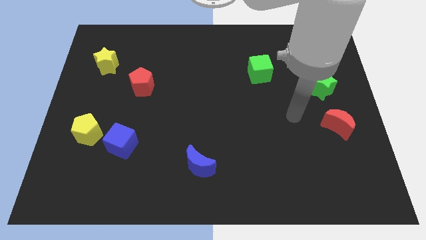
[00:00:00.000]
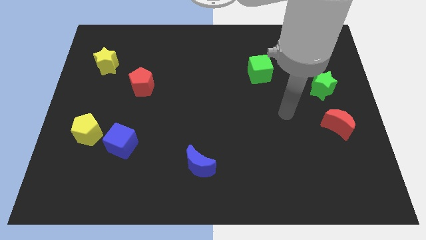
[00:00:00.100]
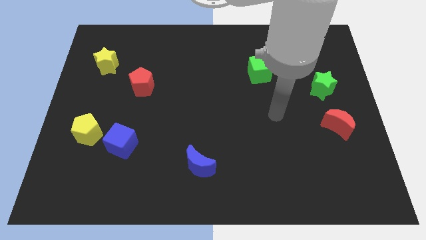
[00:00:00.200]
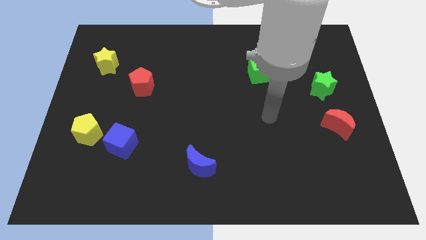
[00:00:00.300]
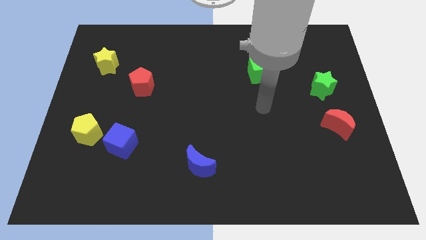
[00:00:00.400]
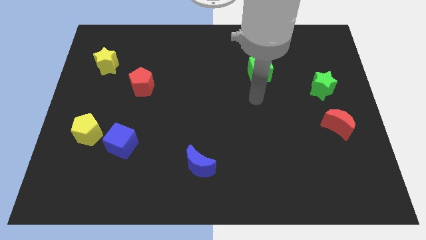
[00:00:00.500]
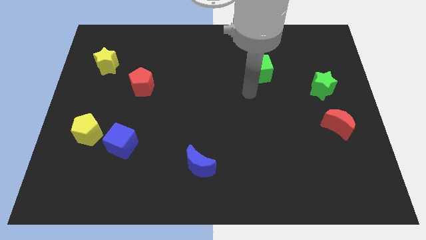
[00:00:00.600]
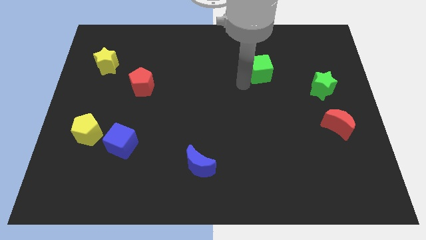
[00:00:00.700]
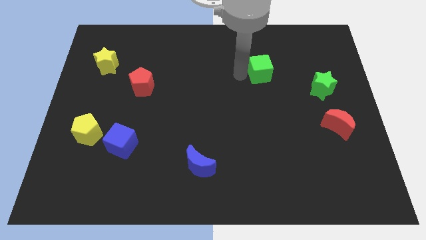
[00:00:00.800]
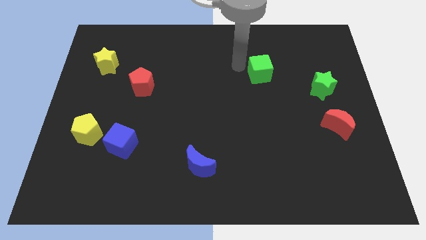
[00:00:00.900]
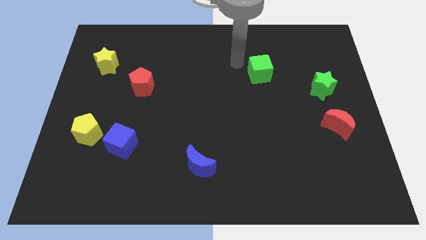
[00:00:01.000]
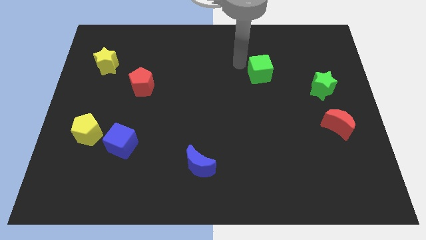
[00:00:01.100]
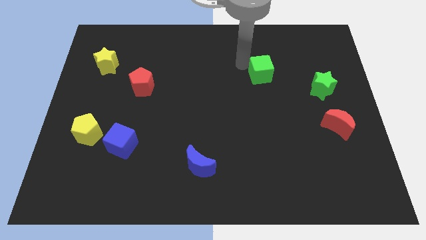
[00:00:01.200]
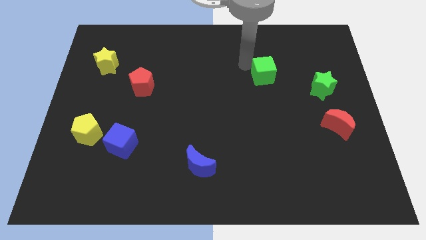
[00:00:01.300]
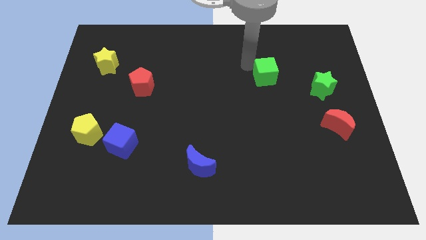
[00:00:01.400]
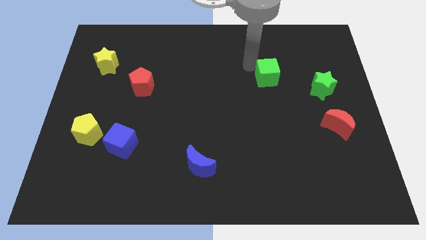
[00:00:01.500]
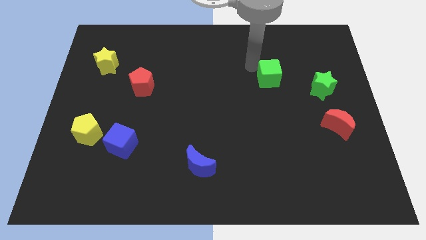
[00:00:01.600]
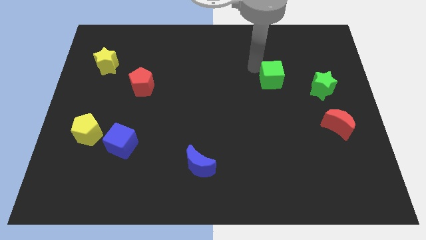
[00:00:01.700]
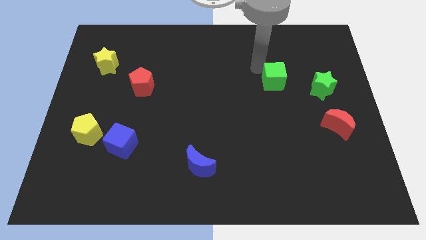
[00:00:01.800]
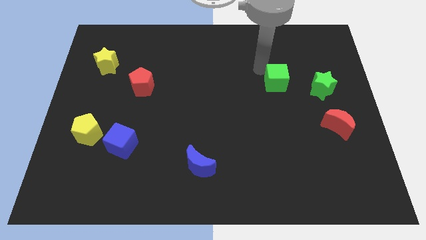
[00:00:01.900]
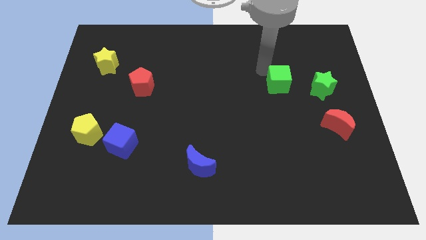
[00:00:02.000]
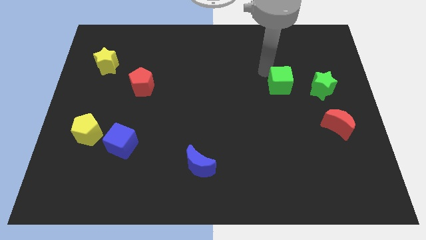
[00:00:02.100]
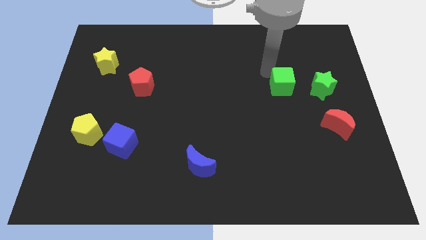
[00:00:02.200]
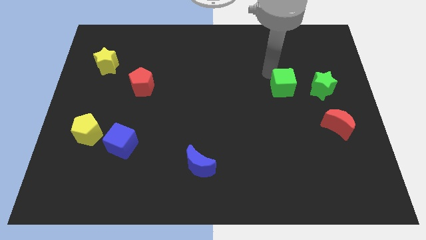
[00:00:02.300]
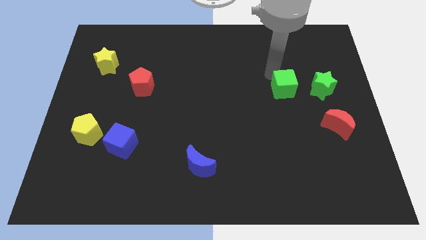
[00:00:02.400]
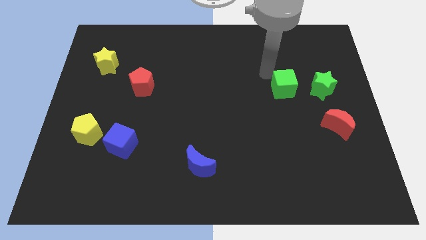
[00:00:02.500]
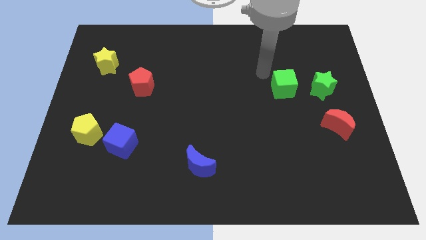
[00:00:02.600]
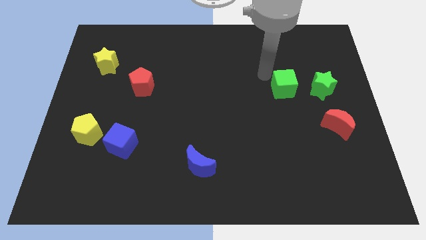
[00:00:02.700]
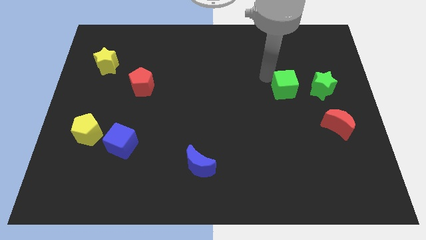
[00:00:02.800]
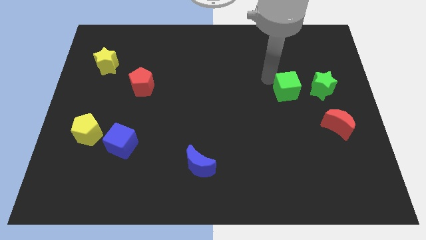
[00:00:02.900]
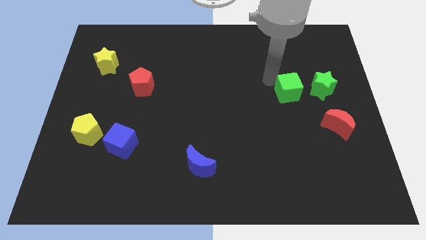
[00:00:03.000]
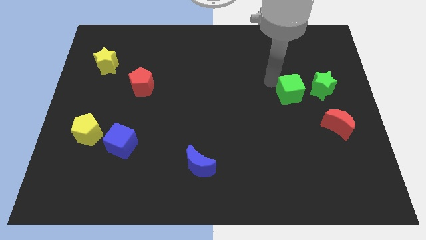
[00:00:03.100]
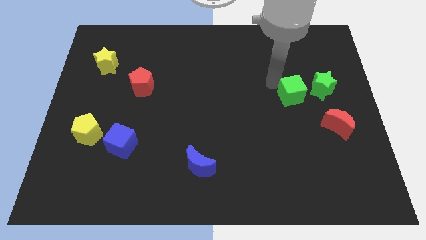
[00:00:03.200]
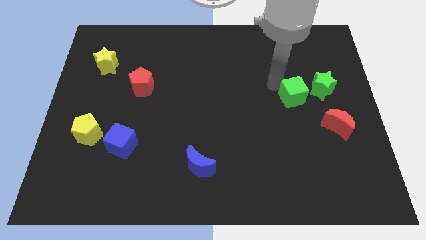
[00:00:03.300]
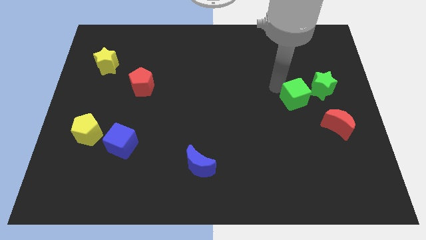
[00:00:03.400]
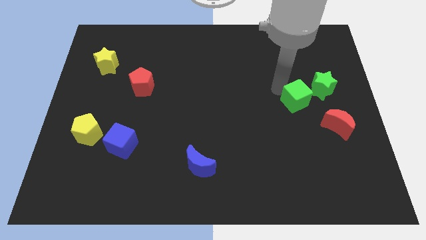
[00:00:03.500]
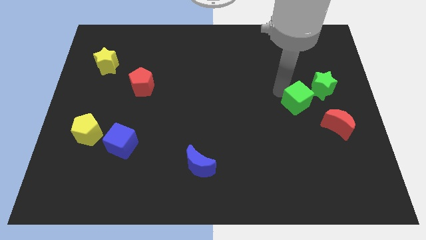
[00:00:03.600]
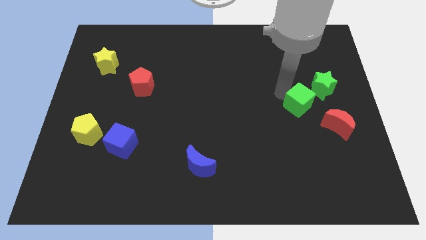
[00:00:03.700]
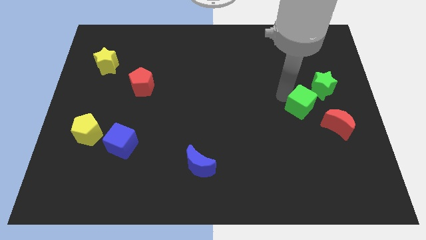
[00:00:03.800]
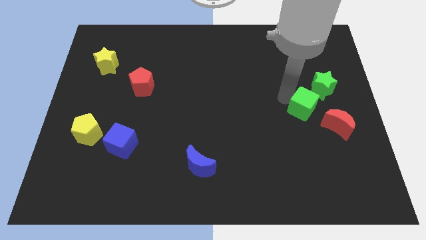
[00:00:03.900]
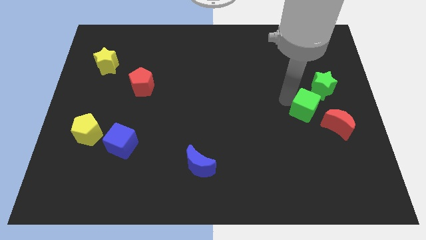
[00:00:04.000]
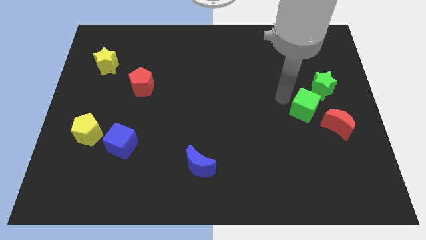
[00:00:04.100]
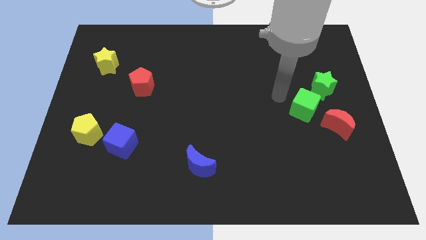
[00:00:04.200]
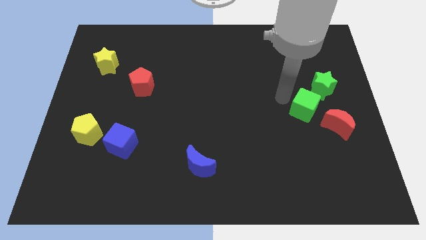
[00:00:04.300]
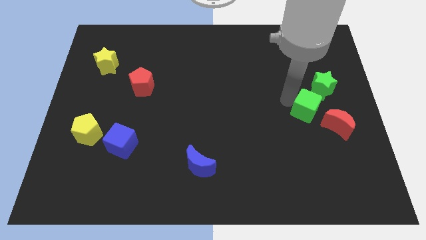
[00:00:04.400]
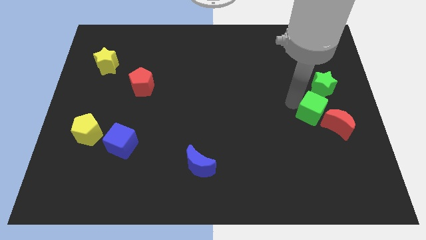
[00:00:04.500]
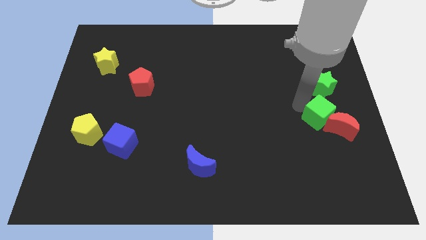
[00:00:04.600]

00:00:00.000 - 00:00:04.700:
push the green cube to the red moon

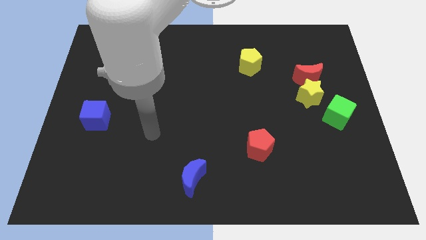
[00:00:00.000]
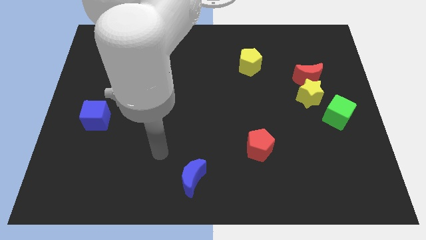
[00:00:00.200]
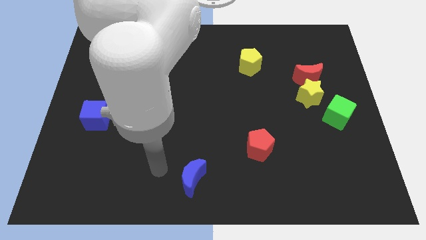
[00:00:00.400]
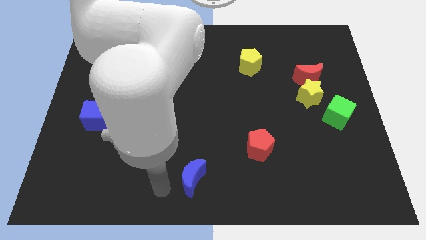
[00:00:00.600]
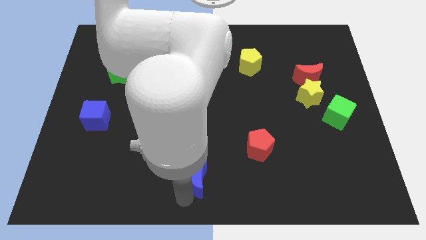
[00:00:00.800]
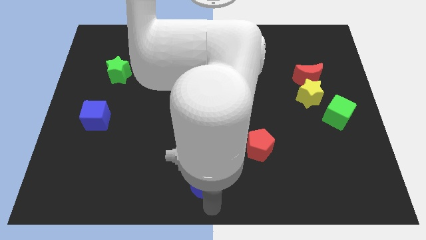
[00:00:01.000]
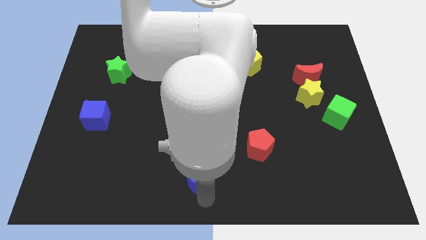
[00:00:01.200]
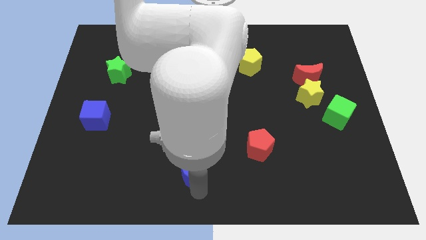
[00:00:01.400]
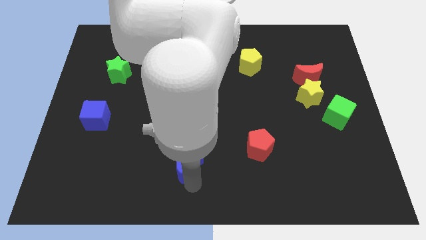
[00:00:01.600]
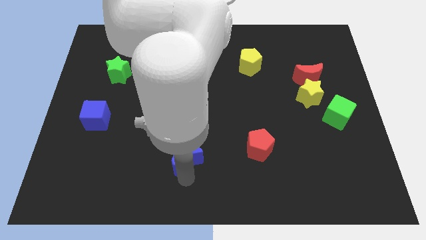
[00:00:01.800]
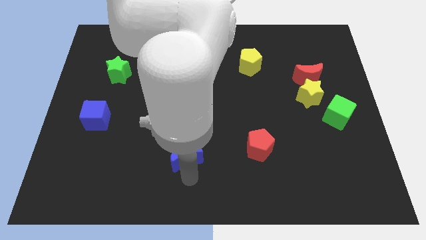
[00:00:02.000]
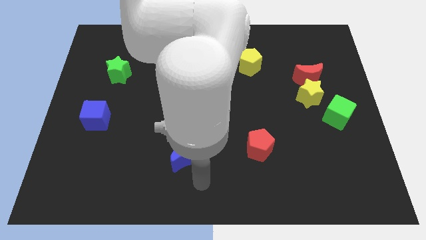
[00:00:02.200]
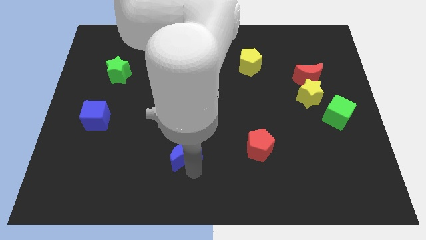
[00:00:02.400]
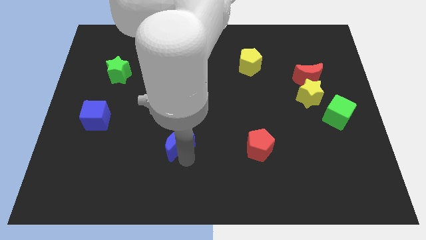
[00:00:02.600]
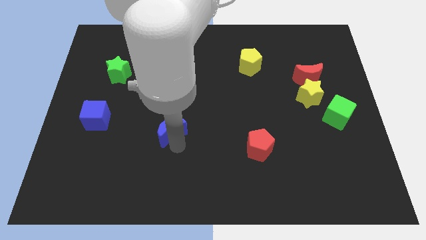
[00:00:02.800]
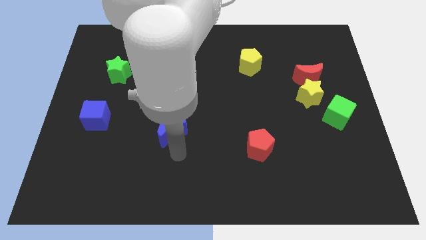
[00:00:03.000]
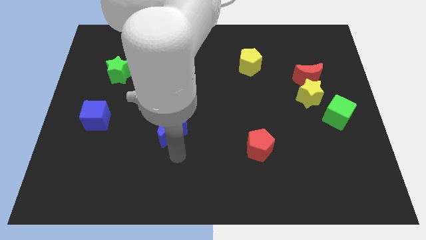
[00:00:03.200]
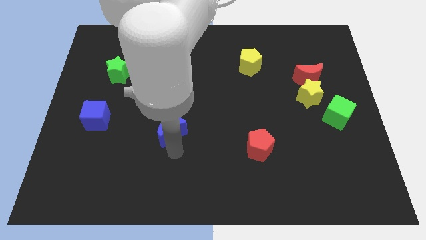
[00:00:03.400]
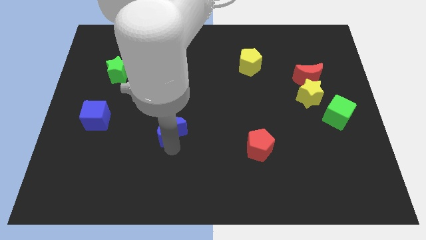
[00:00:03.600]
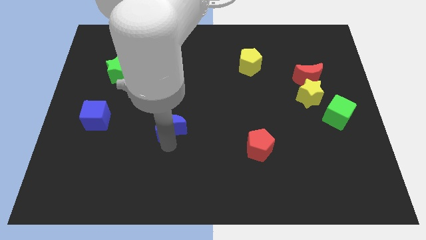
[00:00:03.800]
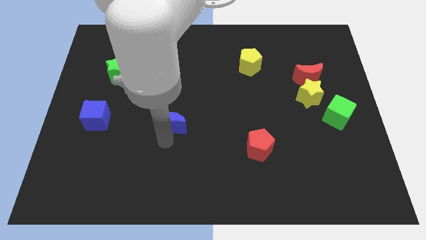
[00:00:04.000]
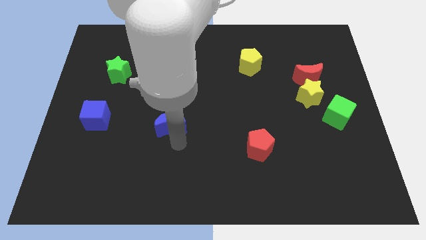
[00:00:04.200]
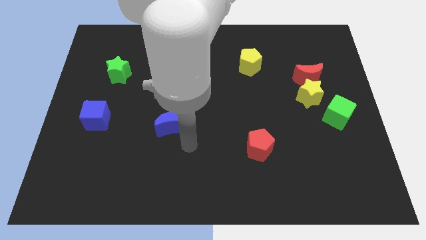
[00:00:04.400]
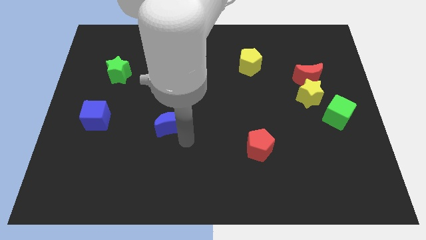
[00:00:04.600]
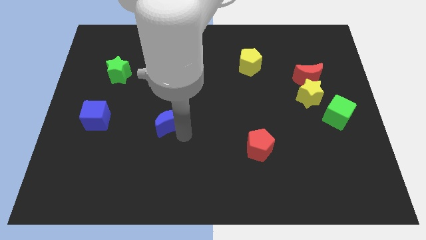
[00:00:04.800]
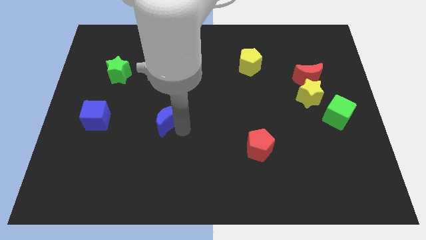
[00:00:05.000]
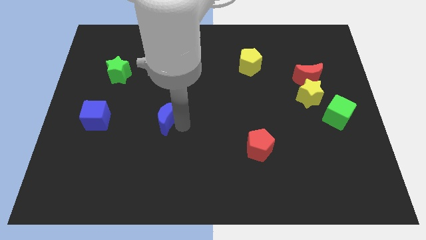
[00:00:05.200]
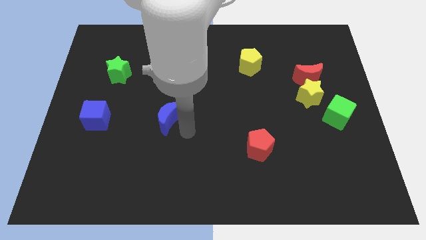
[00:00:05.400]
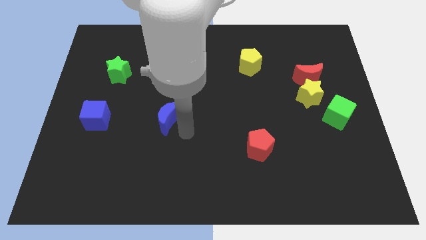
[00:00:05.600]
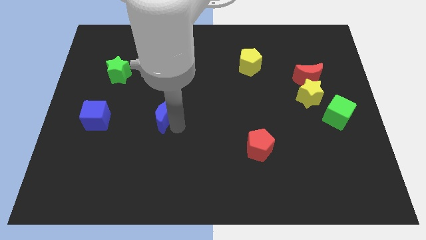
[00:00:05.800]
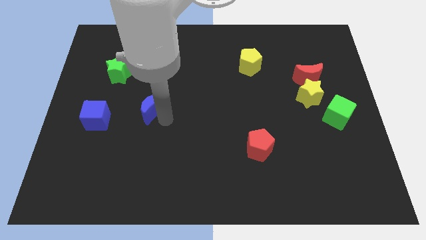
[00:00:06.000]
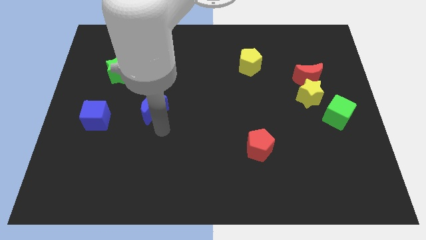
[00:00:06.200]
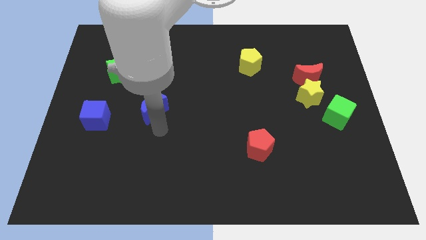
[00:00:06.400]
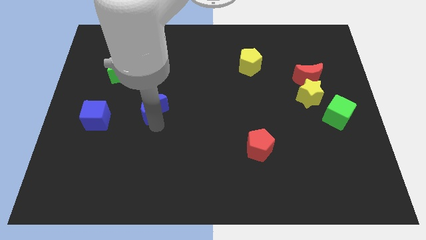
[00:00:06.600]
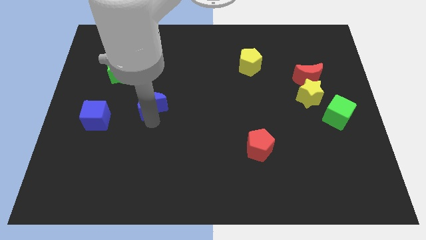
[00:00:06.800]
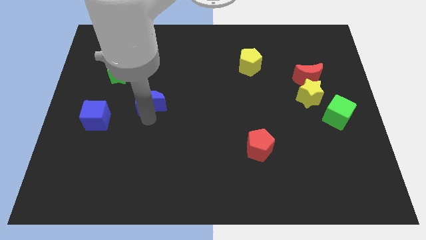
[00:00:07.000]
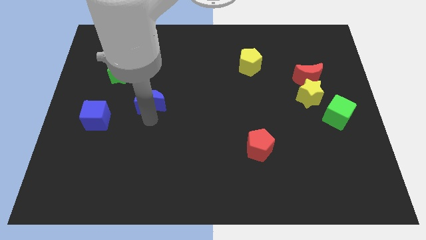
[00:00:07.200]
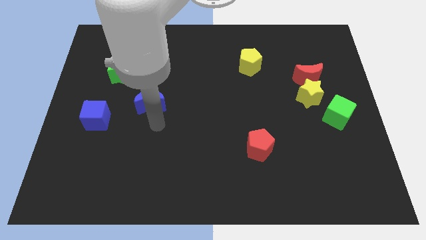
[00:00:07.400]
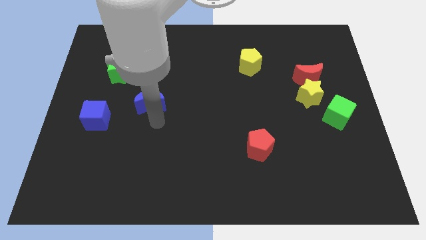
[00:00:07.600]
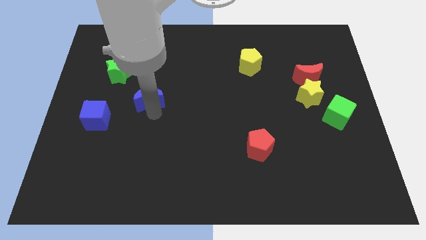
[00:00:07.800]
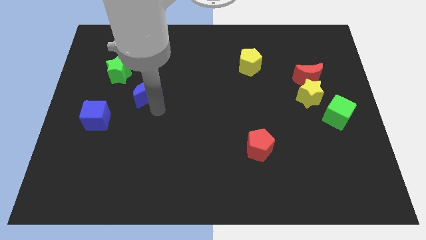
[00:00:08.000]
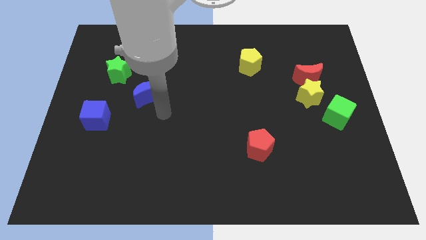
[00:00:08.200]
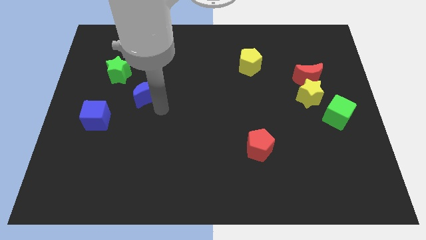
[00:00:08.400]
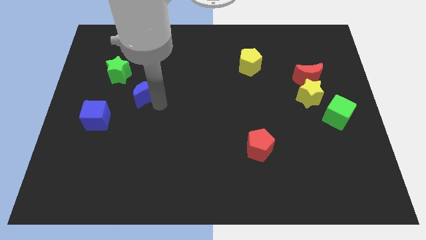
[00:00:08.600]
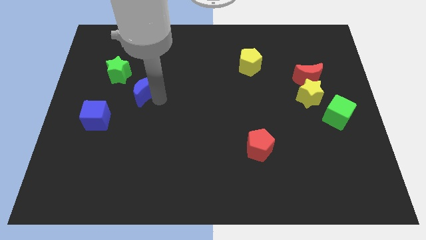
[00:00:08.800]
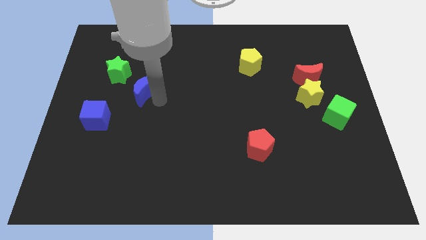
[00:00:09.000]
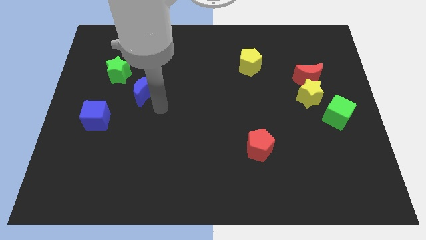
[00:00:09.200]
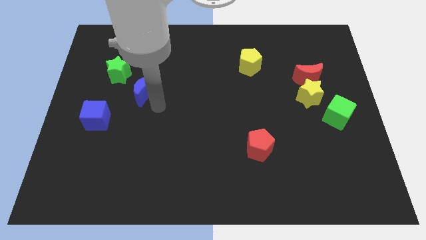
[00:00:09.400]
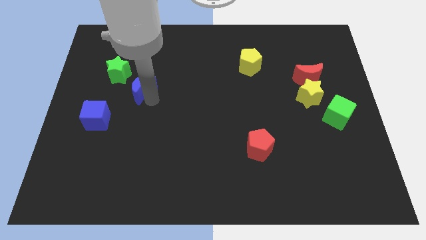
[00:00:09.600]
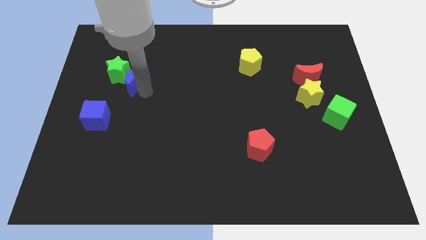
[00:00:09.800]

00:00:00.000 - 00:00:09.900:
push the blue moon close to the green star
